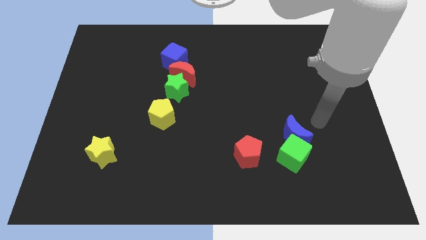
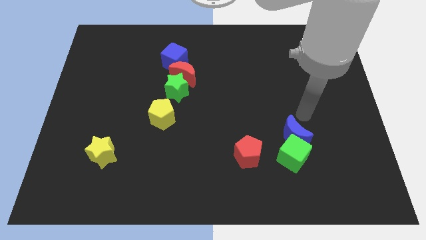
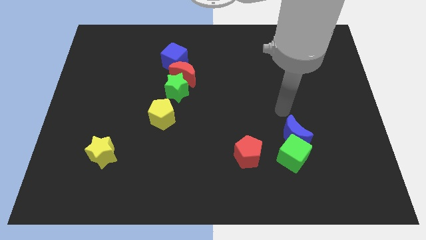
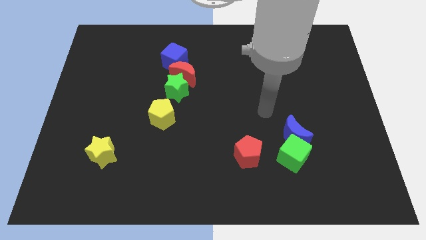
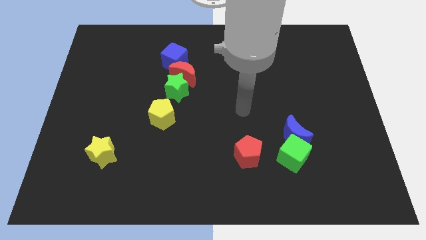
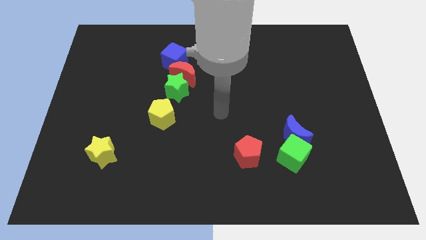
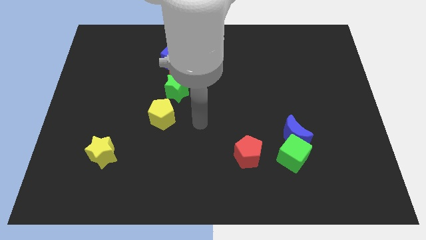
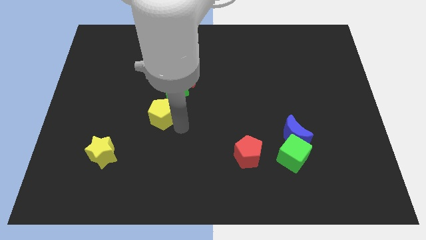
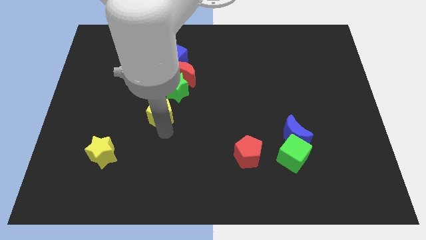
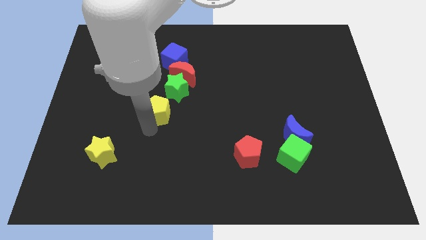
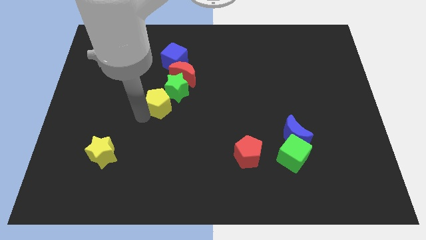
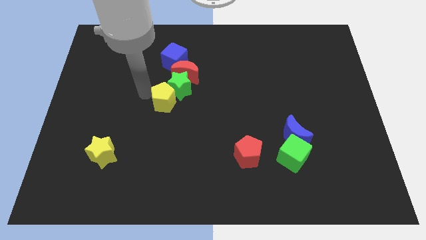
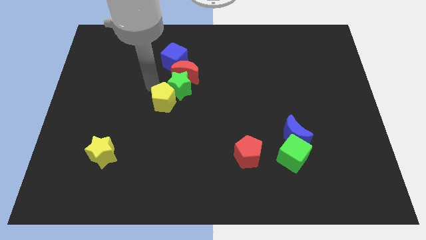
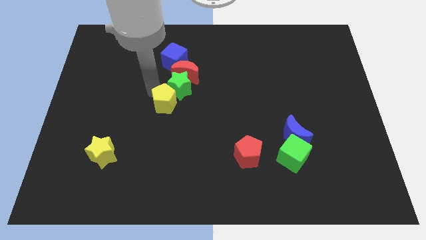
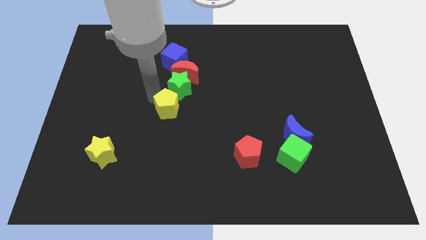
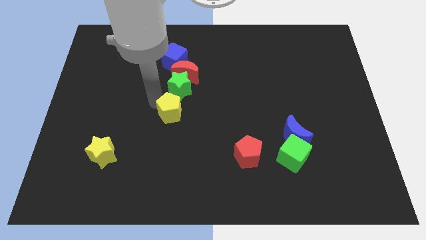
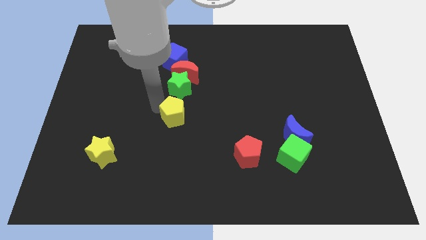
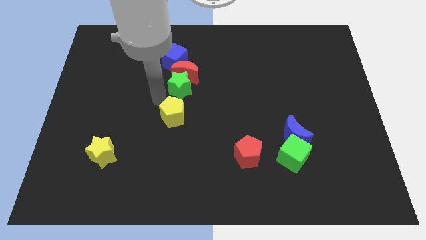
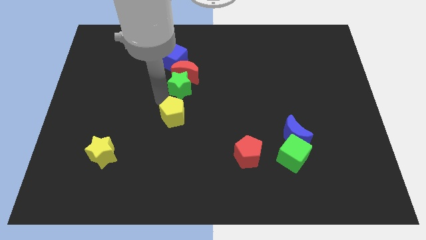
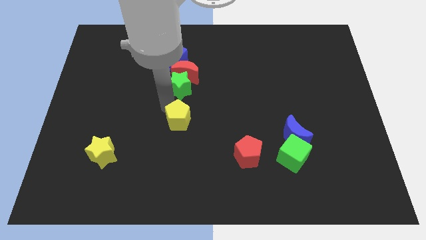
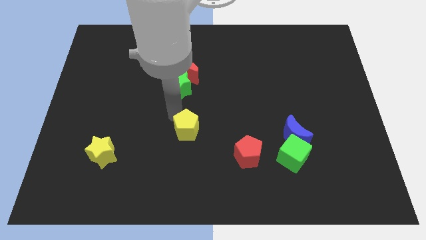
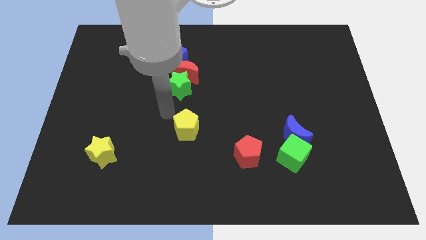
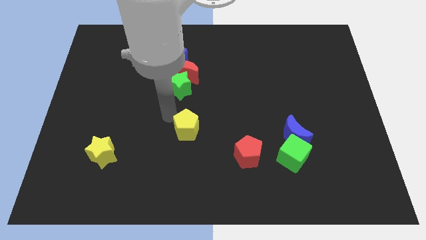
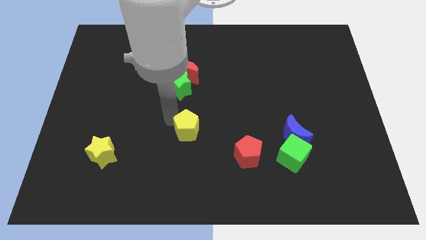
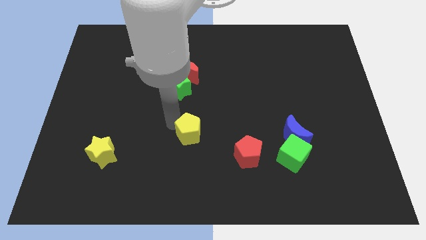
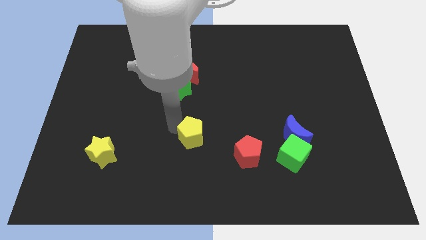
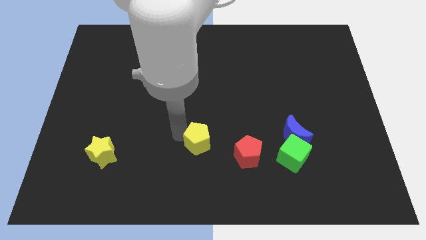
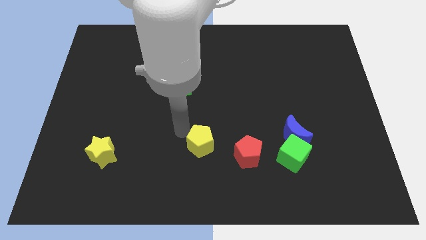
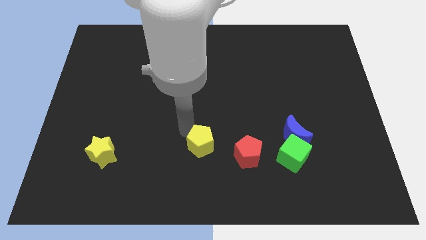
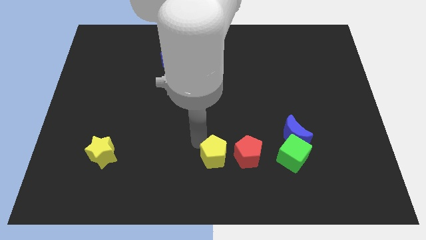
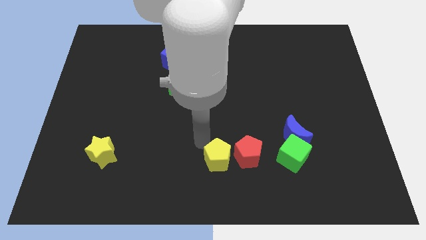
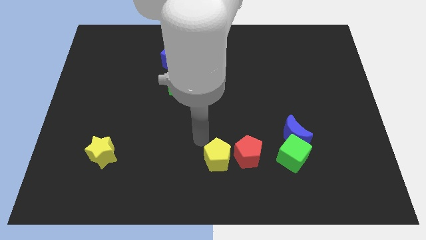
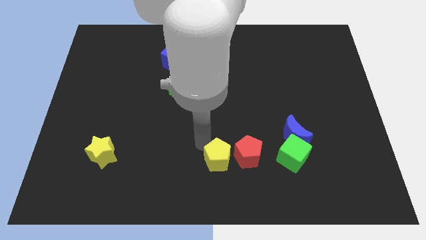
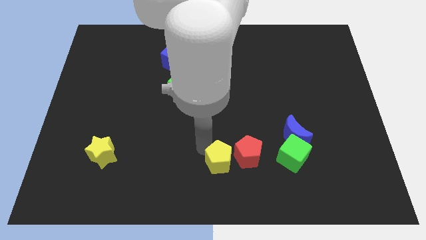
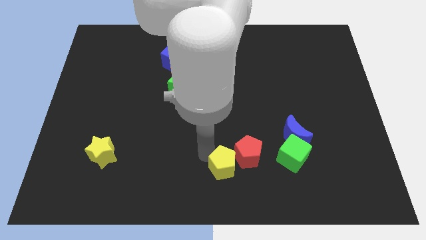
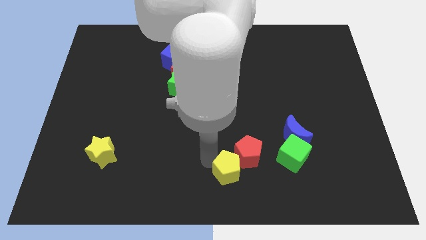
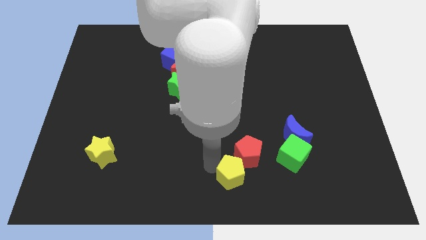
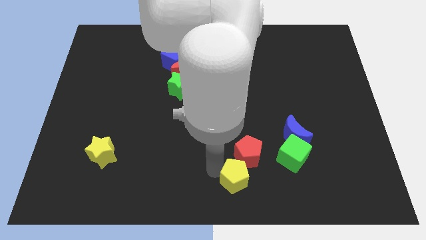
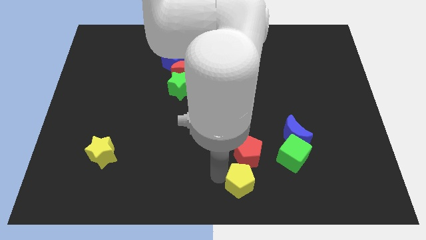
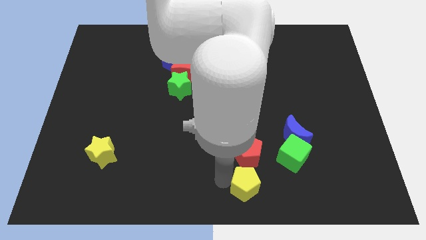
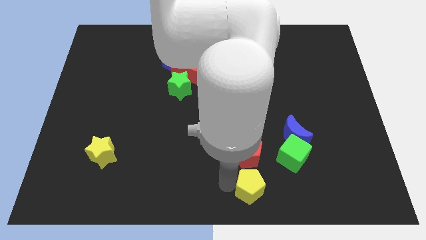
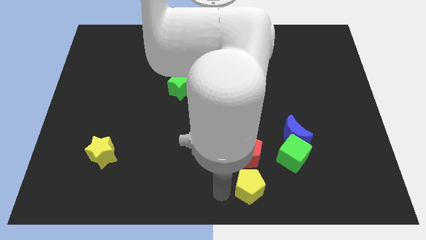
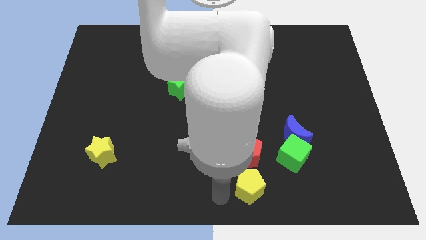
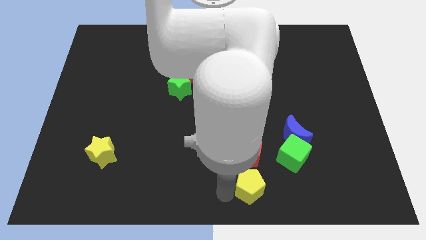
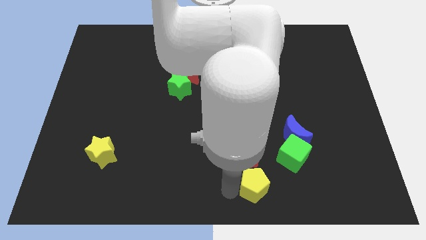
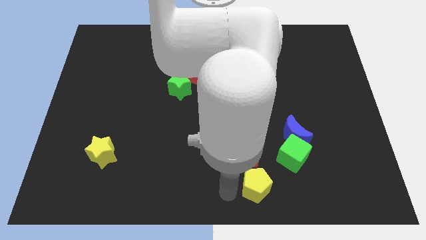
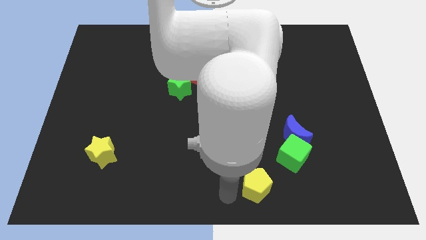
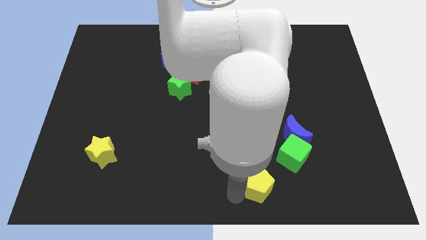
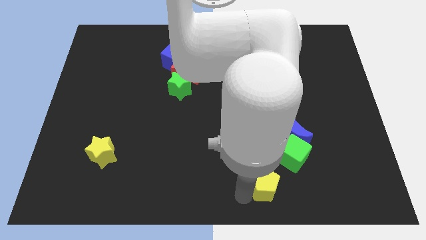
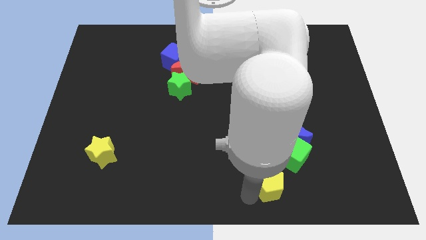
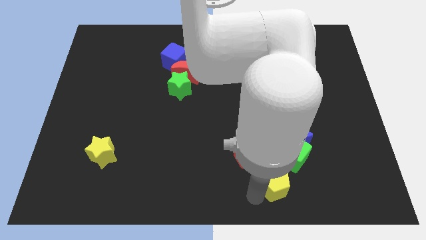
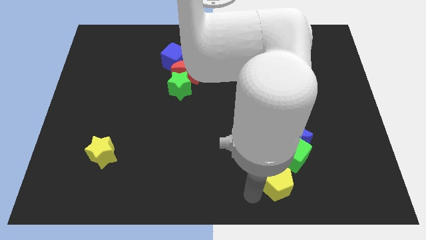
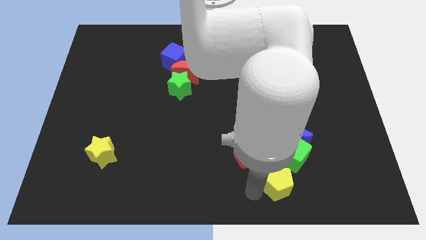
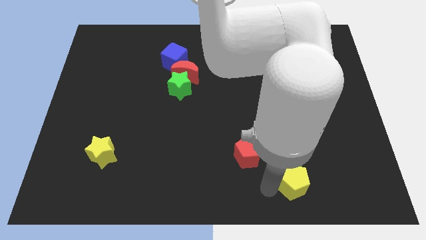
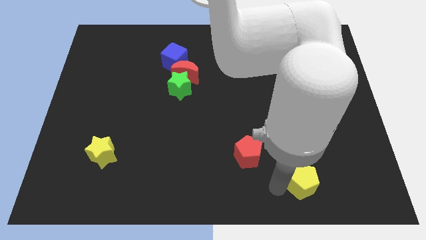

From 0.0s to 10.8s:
slide the yellow pentagon diagonally down and to the right of the green cube

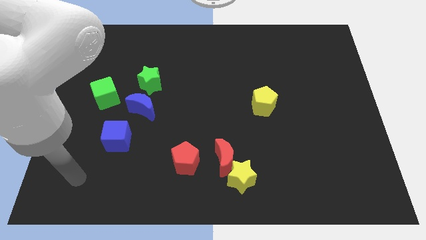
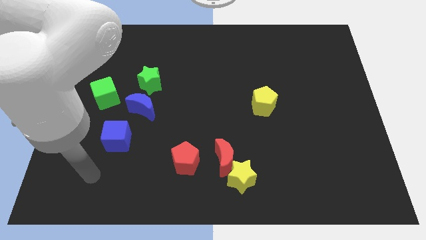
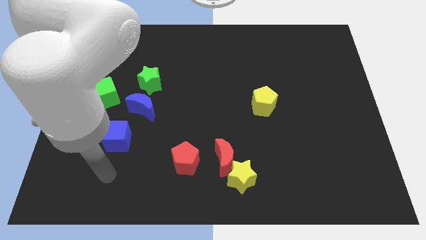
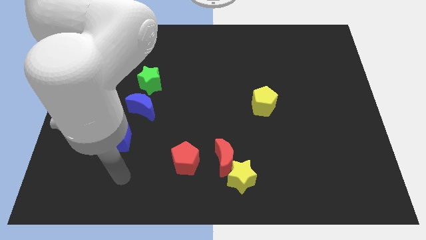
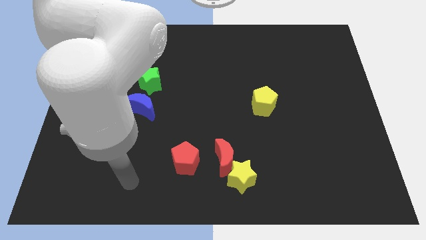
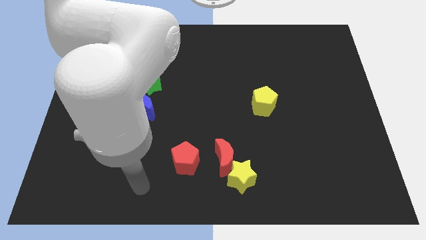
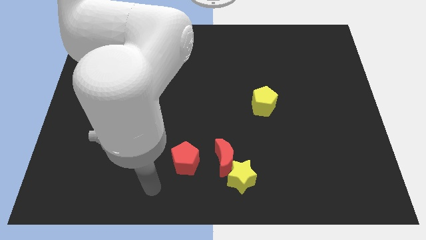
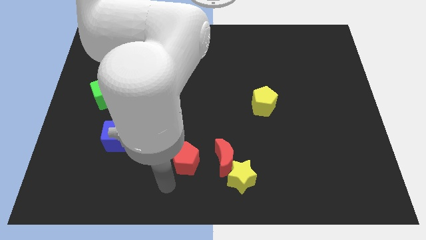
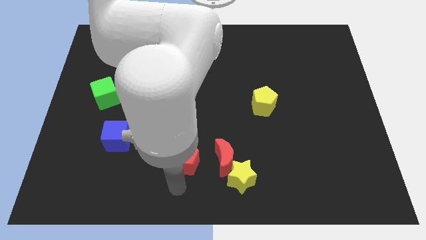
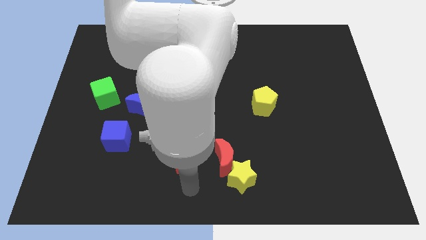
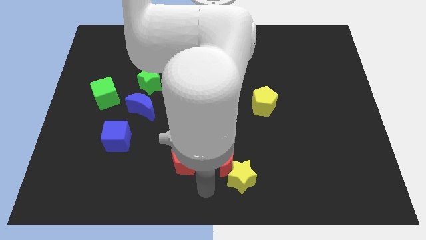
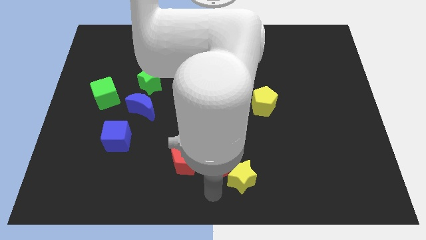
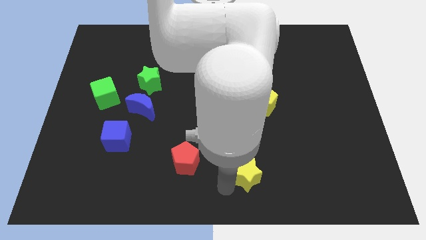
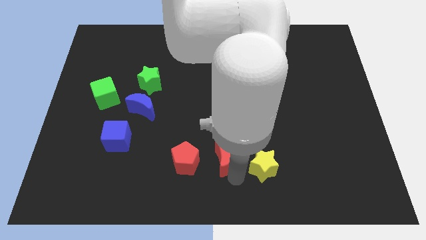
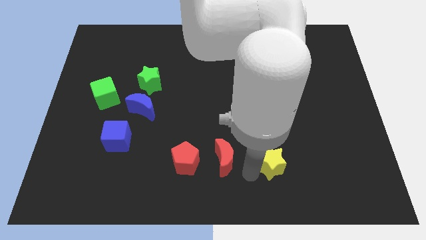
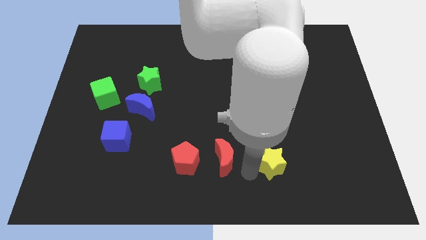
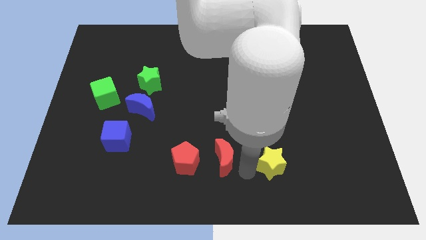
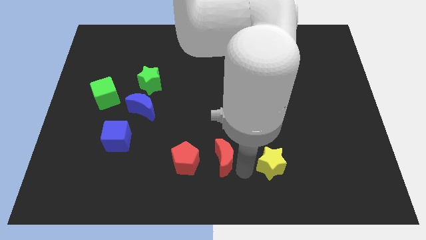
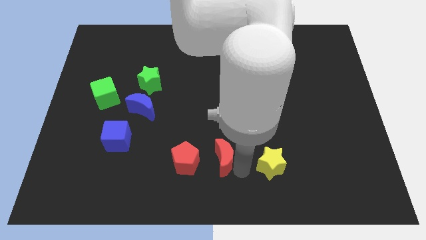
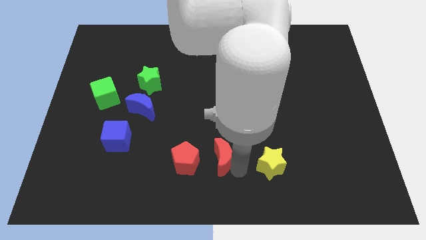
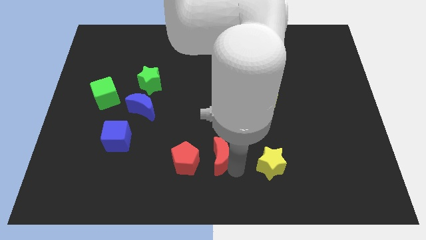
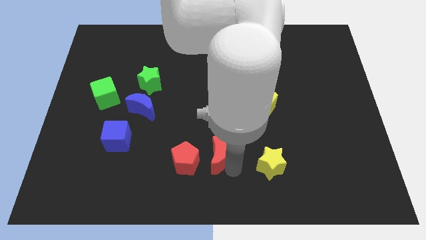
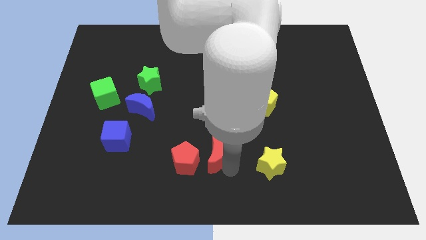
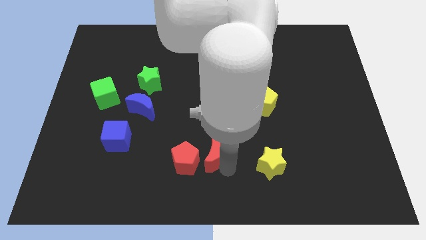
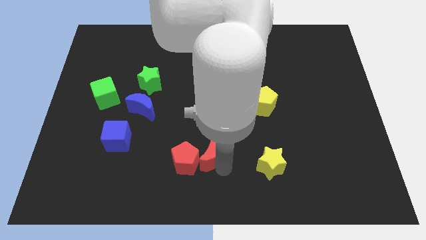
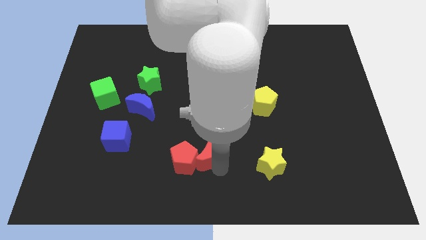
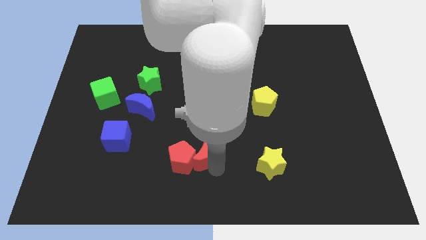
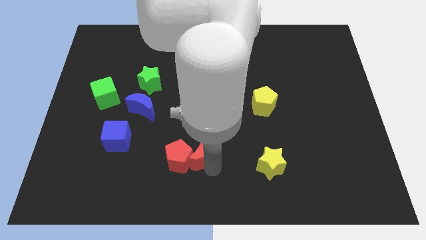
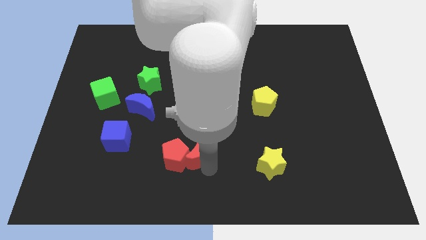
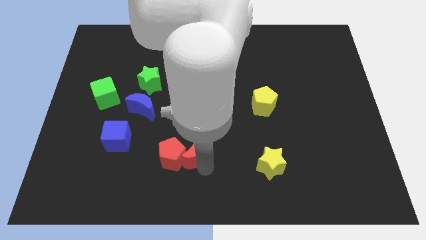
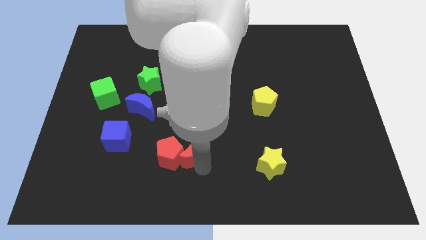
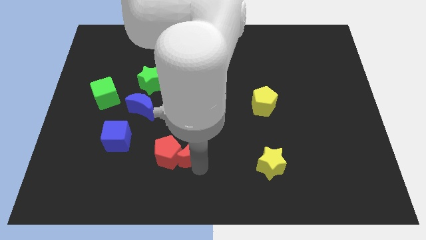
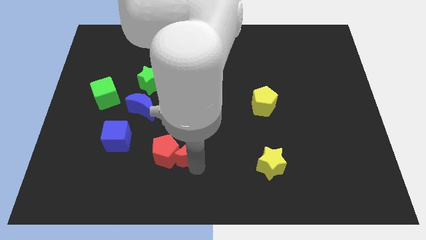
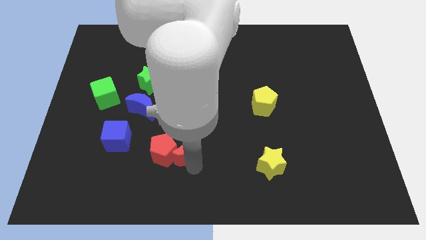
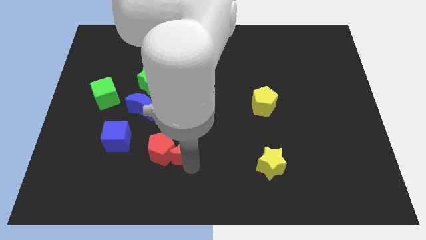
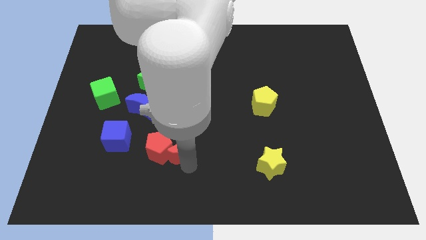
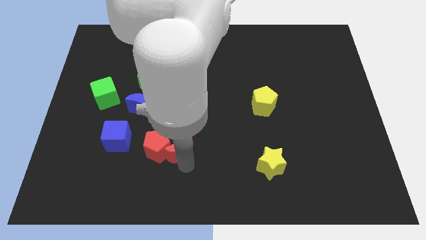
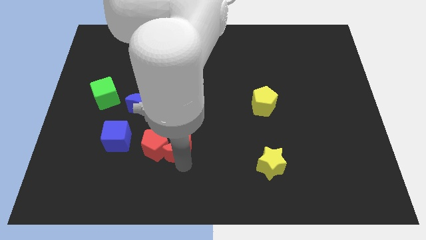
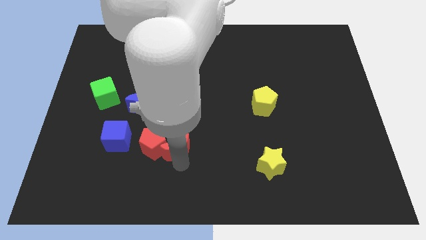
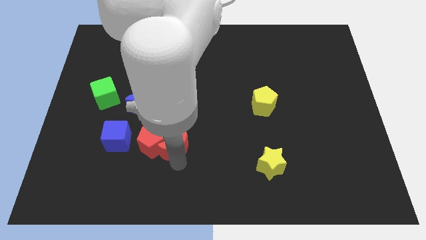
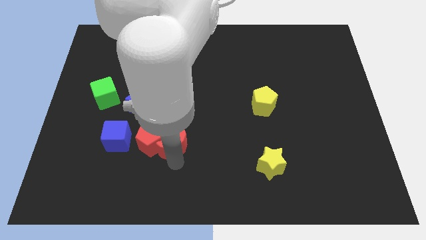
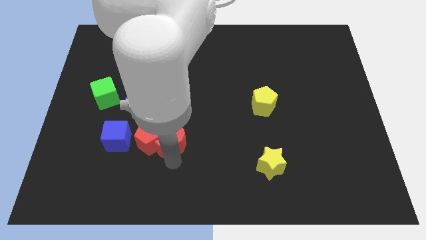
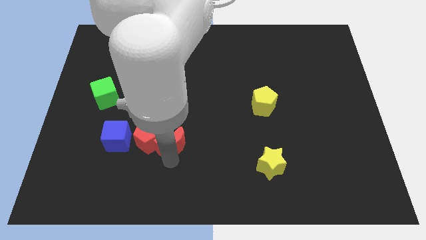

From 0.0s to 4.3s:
slide the red moon to the bottom right of the blue moon
